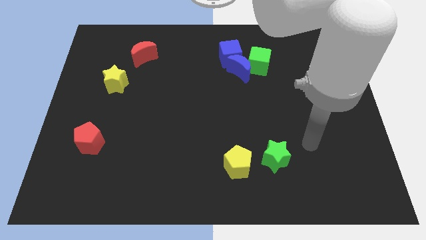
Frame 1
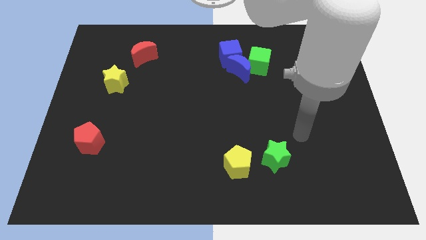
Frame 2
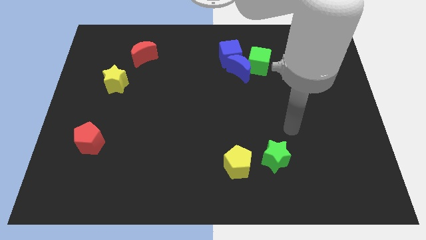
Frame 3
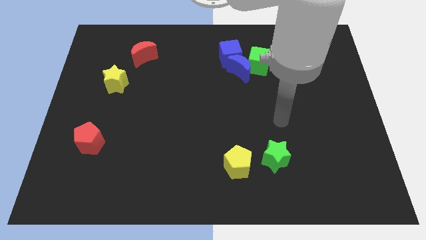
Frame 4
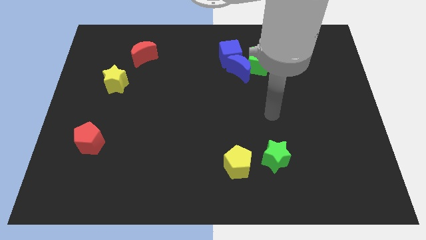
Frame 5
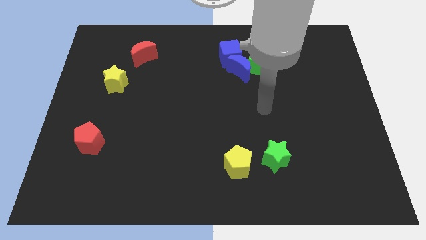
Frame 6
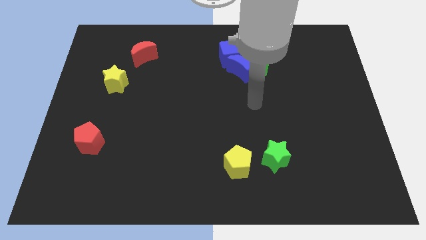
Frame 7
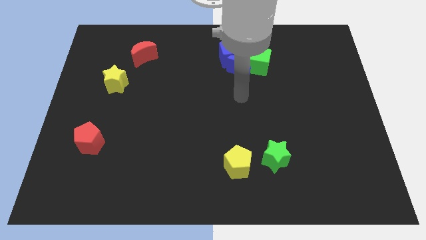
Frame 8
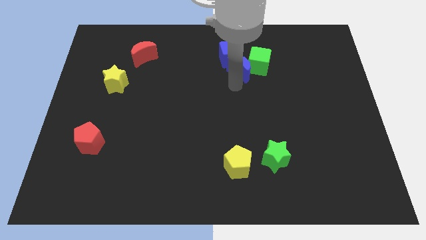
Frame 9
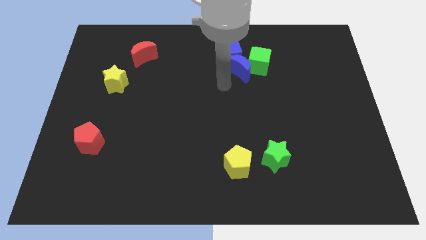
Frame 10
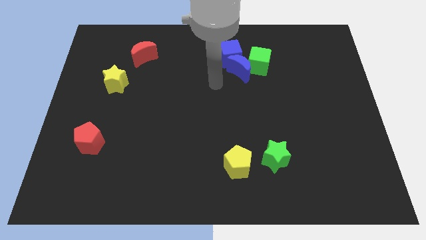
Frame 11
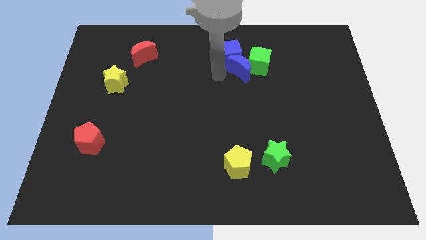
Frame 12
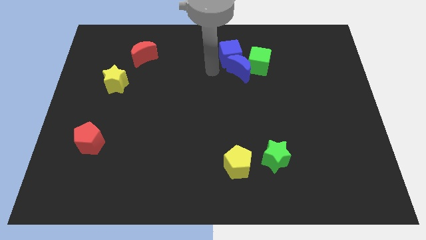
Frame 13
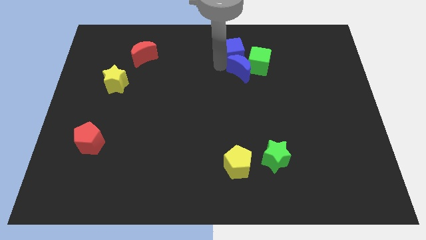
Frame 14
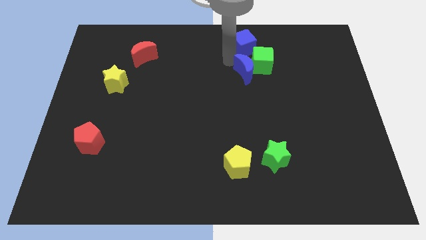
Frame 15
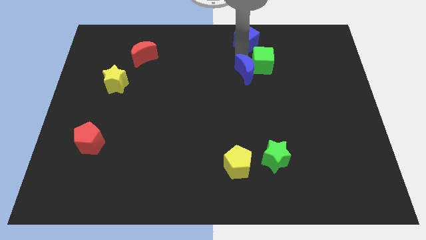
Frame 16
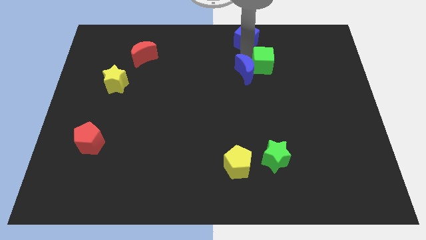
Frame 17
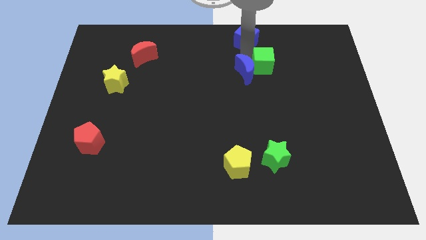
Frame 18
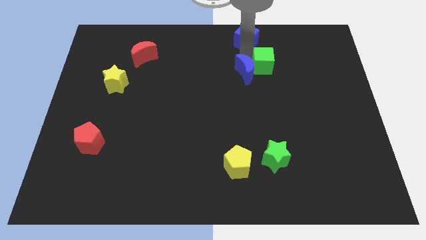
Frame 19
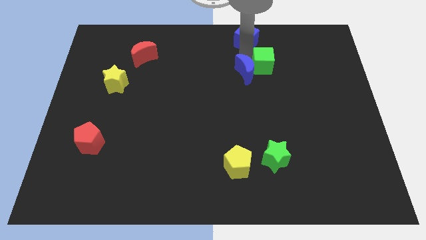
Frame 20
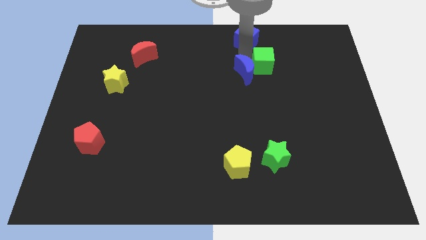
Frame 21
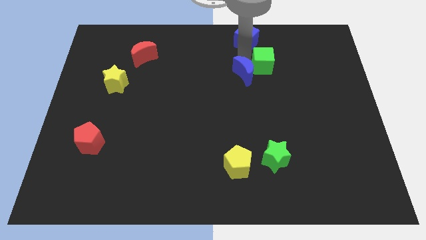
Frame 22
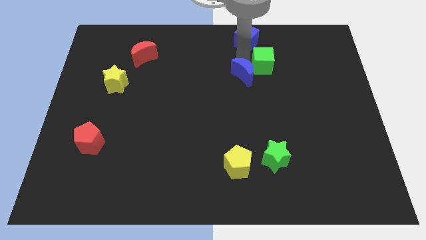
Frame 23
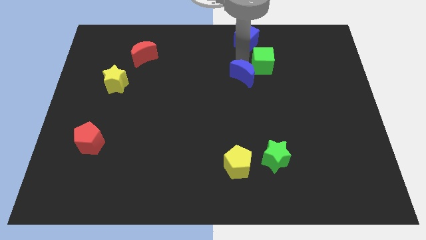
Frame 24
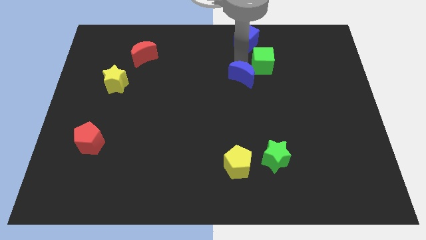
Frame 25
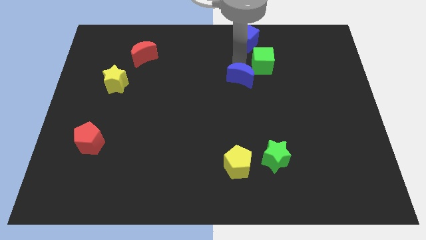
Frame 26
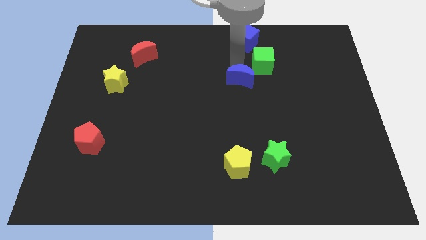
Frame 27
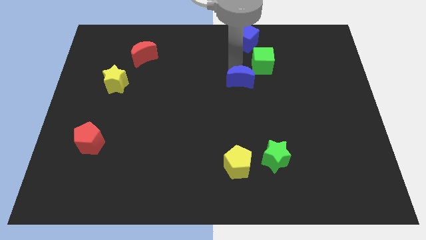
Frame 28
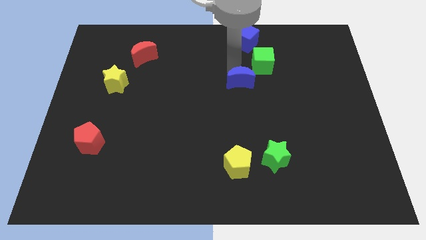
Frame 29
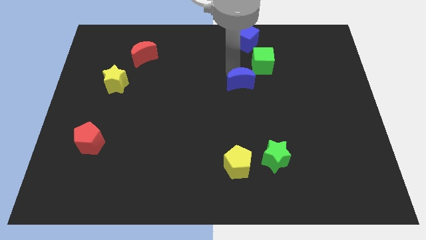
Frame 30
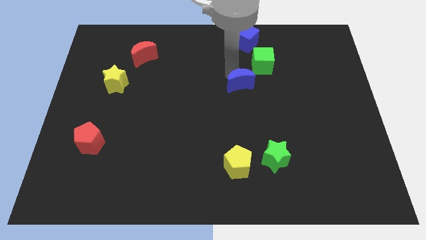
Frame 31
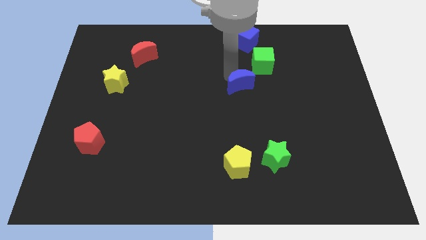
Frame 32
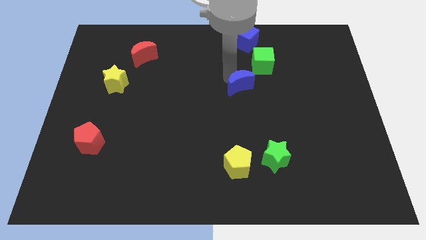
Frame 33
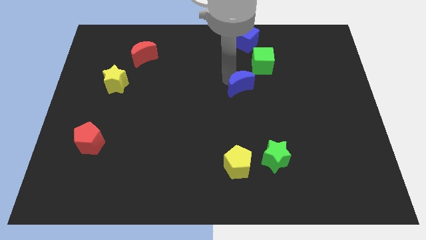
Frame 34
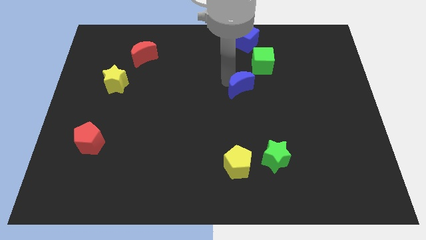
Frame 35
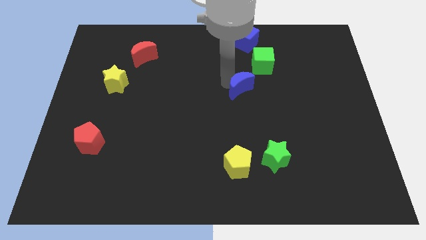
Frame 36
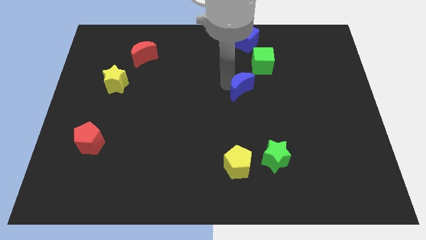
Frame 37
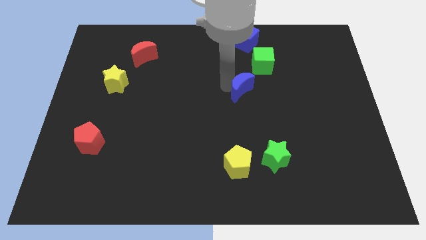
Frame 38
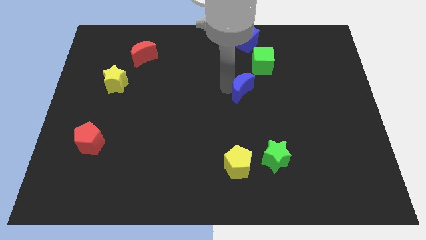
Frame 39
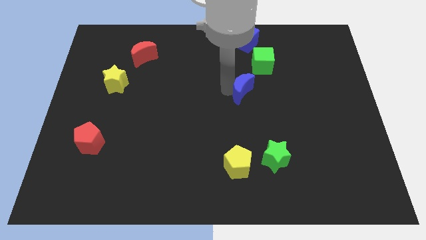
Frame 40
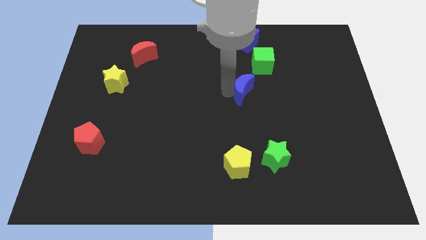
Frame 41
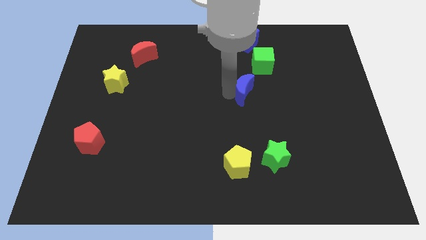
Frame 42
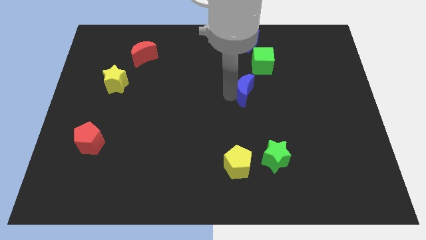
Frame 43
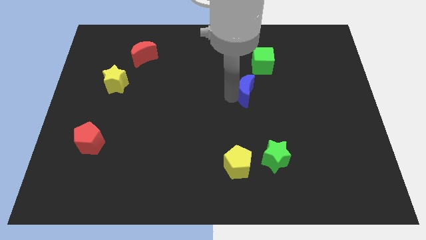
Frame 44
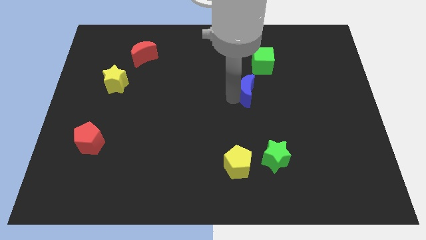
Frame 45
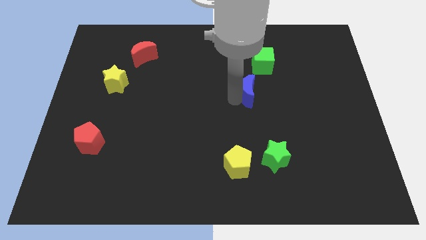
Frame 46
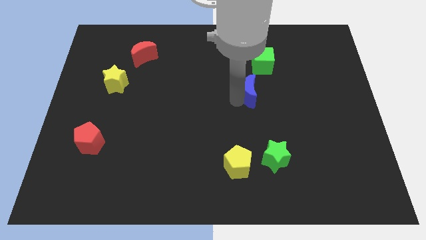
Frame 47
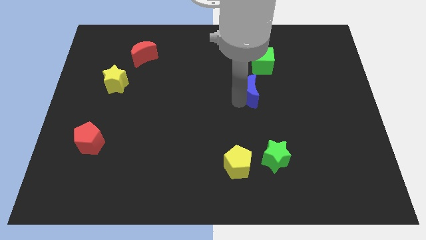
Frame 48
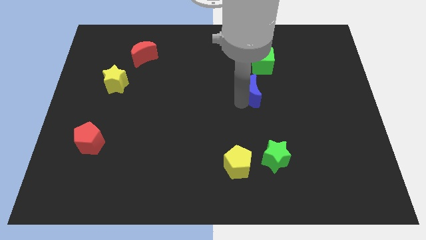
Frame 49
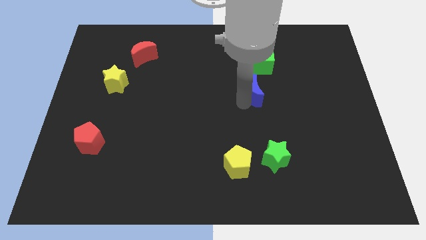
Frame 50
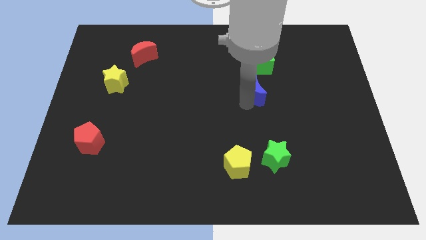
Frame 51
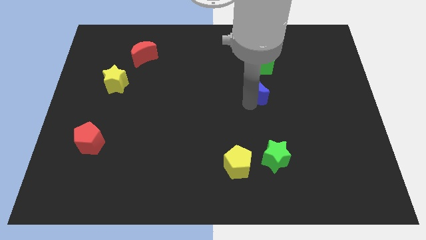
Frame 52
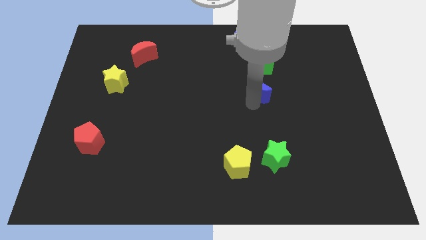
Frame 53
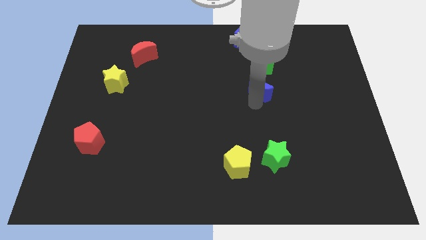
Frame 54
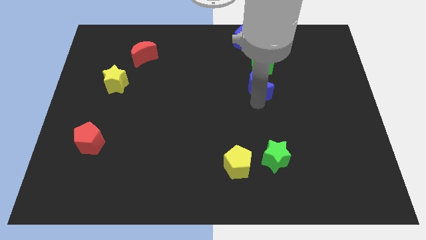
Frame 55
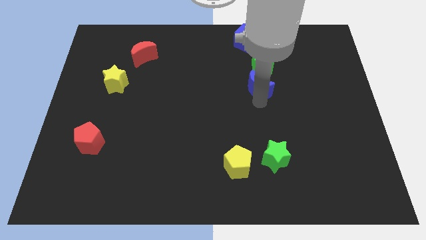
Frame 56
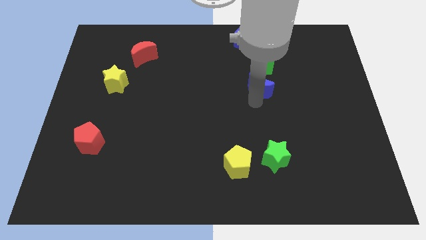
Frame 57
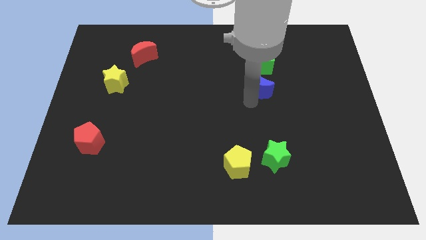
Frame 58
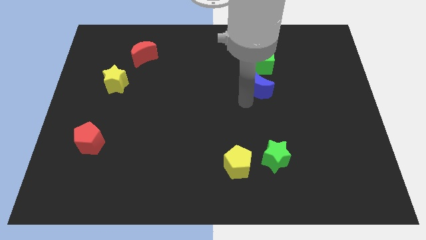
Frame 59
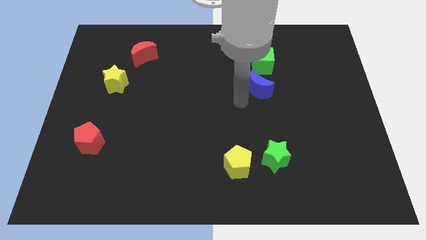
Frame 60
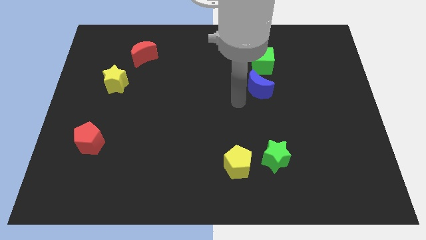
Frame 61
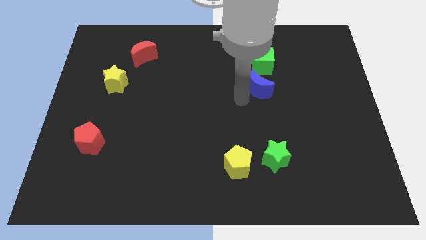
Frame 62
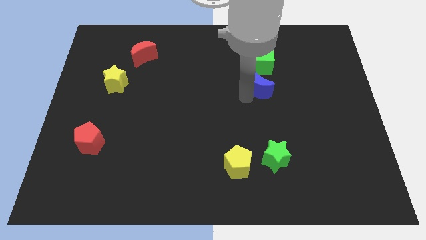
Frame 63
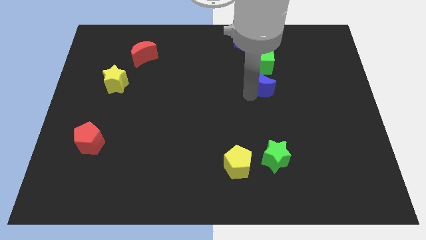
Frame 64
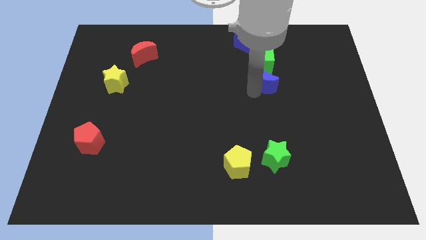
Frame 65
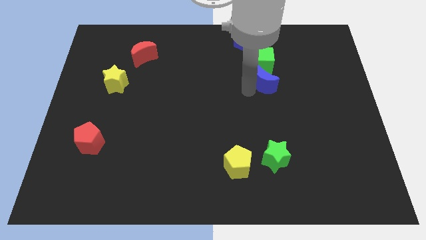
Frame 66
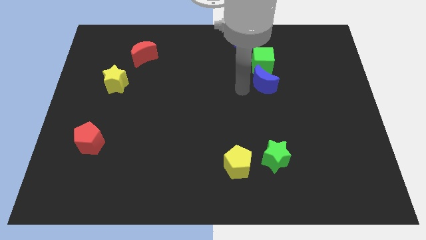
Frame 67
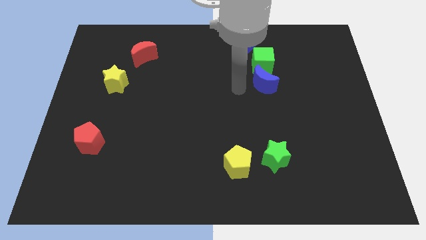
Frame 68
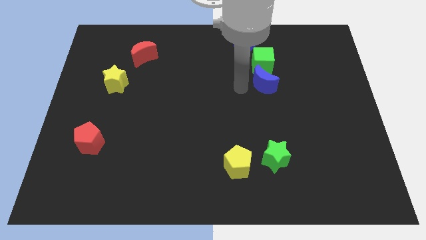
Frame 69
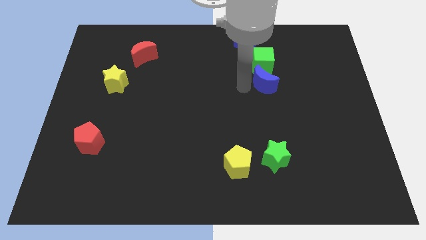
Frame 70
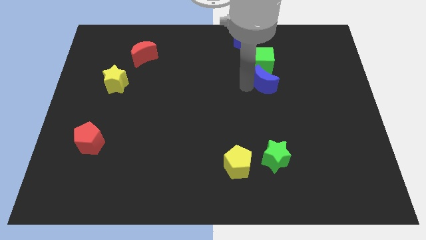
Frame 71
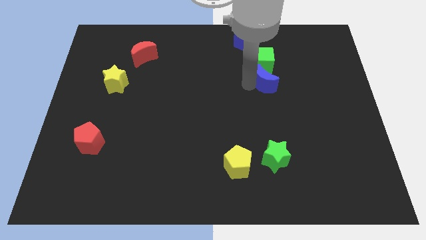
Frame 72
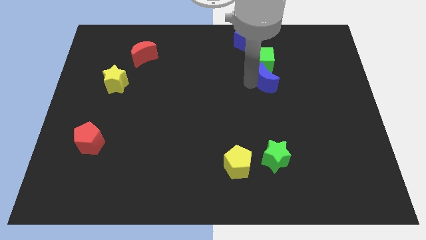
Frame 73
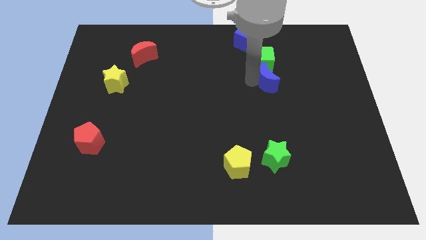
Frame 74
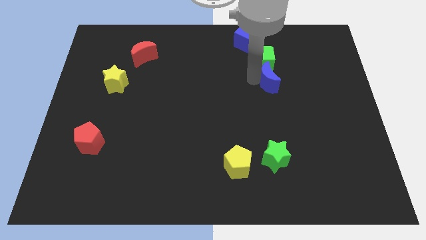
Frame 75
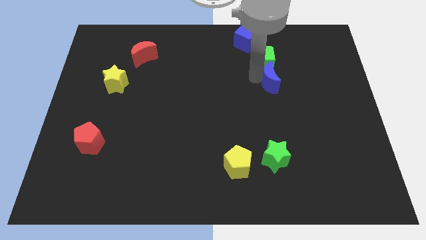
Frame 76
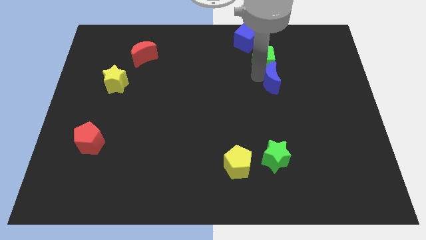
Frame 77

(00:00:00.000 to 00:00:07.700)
move the blue moon right a little bit

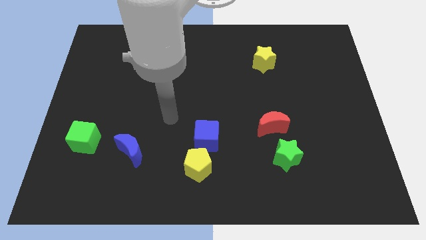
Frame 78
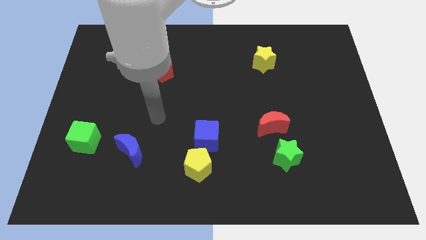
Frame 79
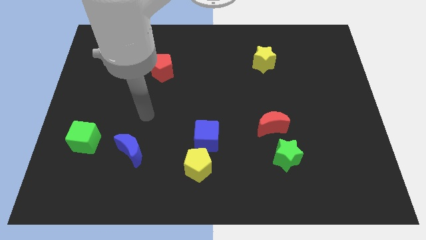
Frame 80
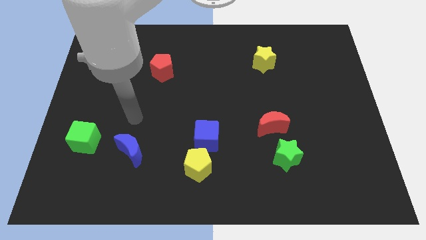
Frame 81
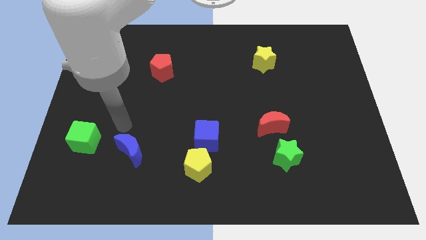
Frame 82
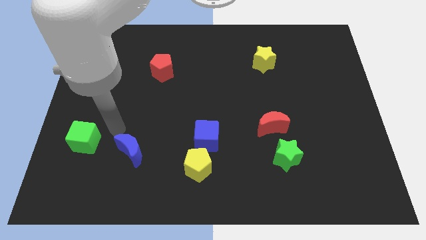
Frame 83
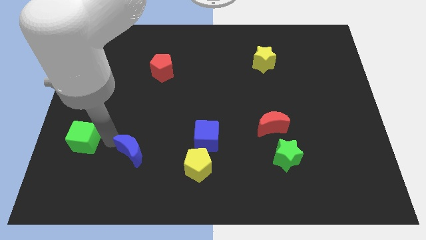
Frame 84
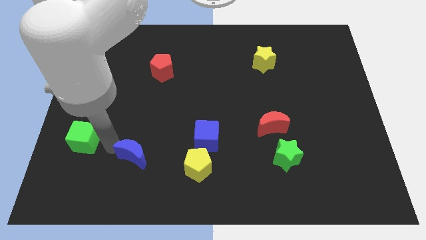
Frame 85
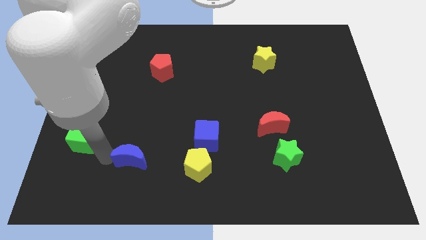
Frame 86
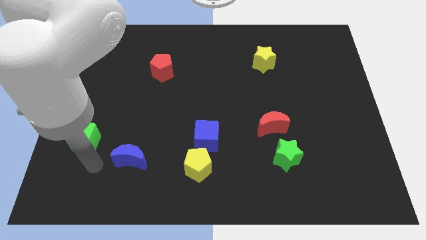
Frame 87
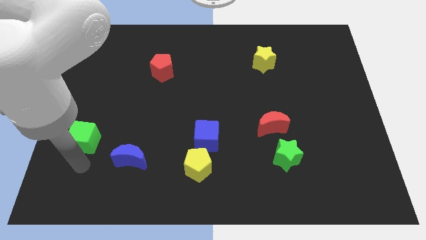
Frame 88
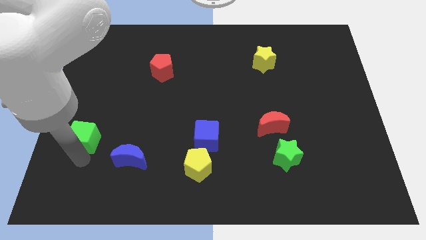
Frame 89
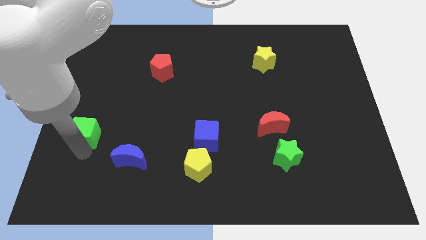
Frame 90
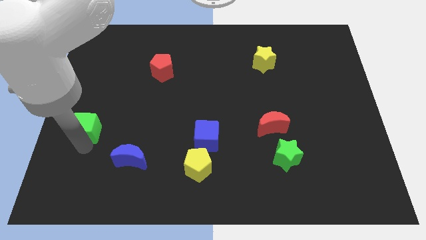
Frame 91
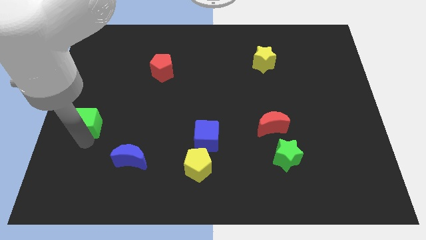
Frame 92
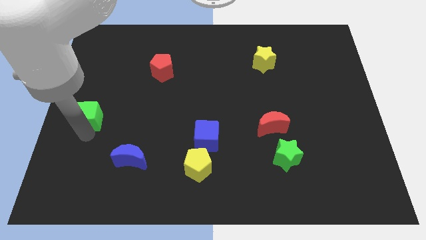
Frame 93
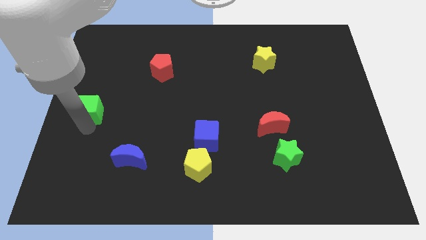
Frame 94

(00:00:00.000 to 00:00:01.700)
push the green cube up a bit
